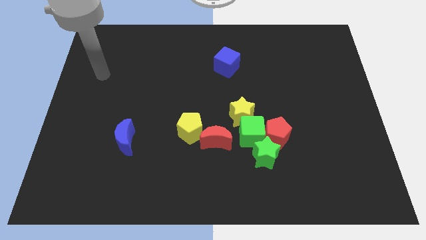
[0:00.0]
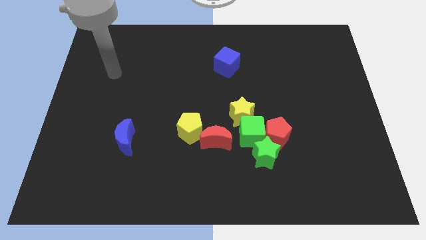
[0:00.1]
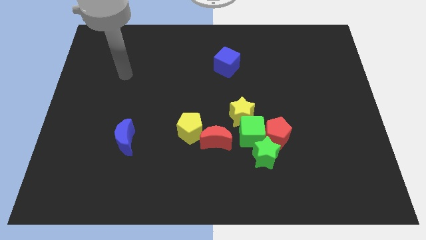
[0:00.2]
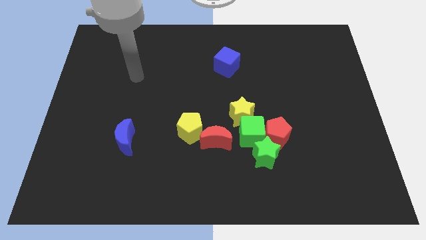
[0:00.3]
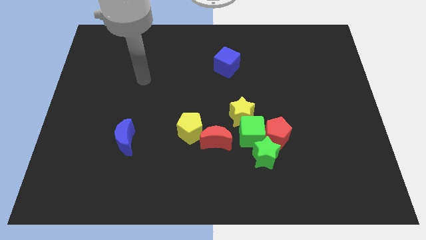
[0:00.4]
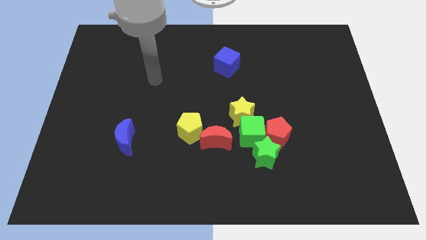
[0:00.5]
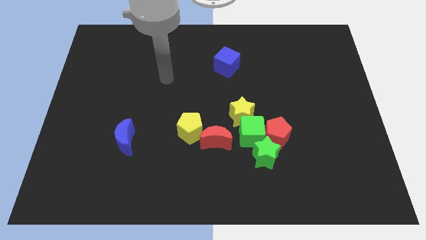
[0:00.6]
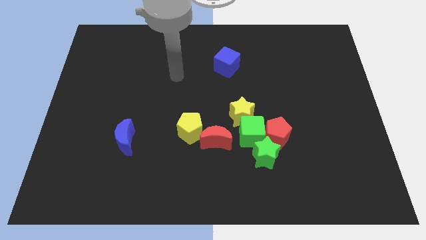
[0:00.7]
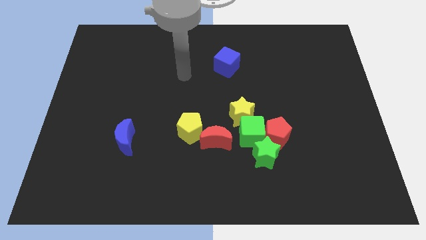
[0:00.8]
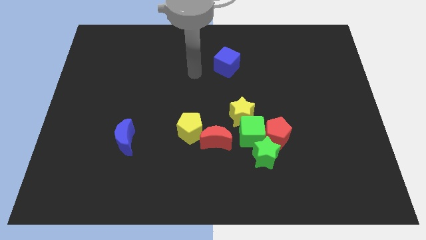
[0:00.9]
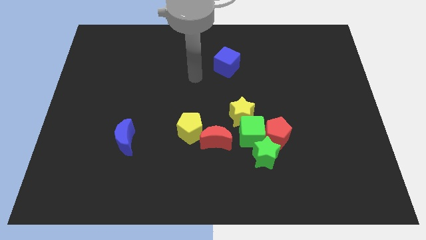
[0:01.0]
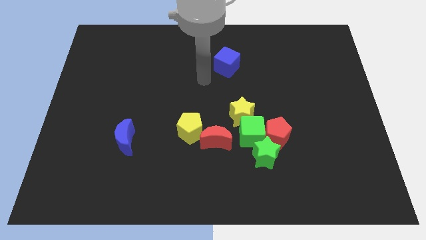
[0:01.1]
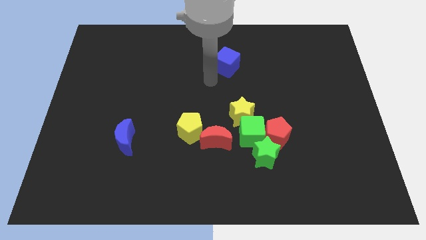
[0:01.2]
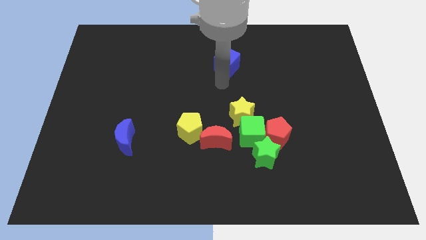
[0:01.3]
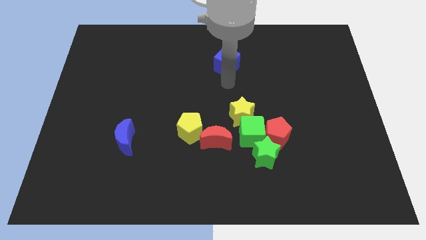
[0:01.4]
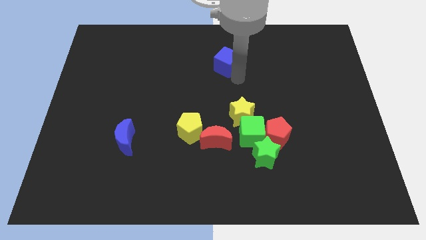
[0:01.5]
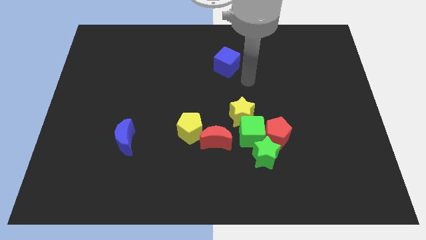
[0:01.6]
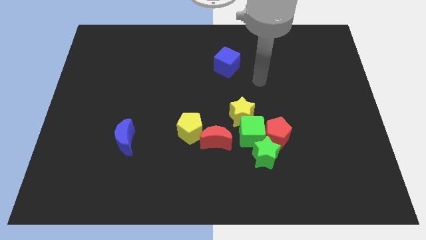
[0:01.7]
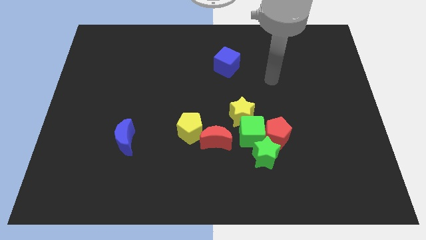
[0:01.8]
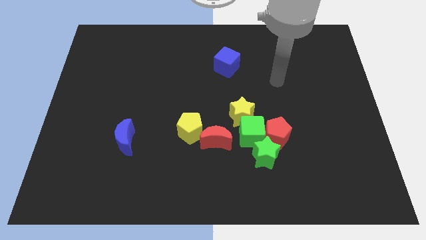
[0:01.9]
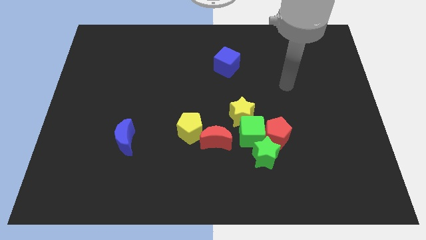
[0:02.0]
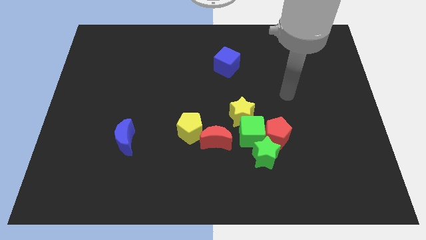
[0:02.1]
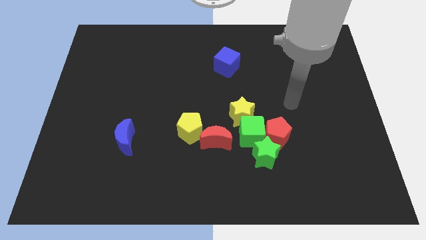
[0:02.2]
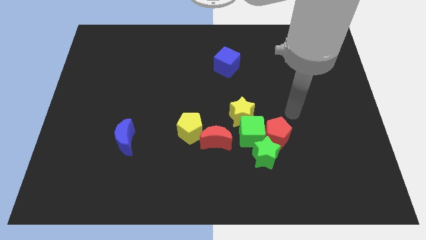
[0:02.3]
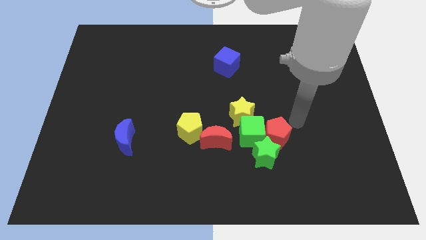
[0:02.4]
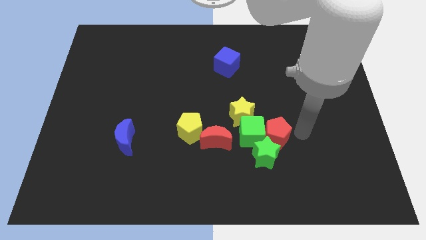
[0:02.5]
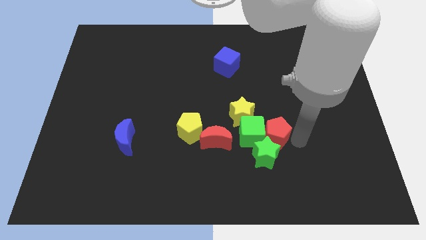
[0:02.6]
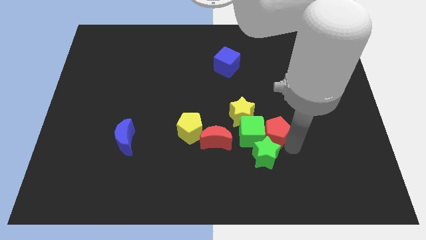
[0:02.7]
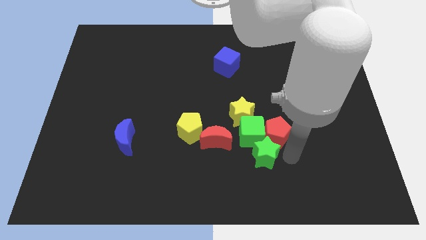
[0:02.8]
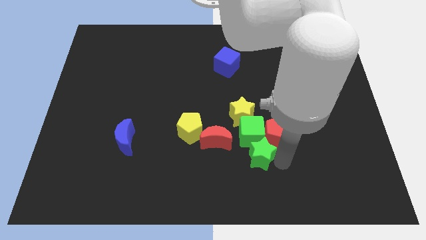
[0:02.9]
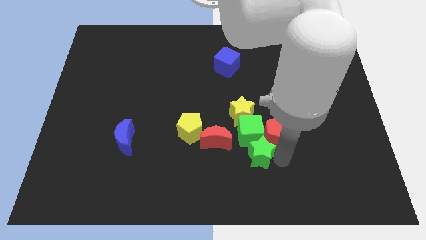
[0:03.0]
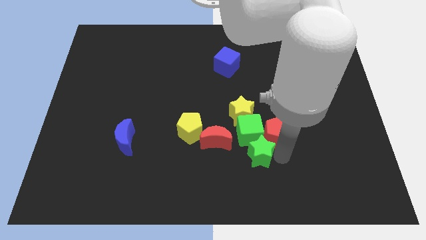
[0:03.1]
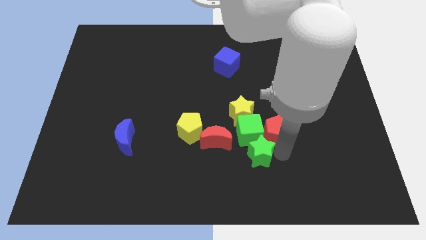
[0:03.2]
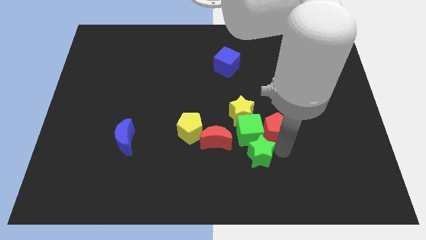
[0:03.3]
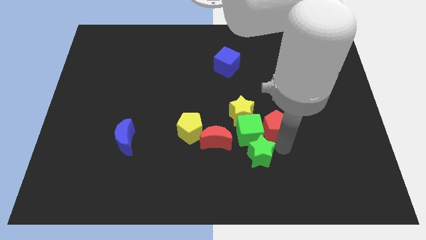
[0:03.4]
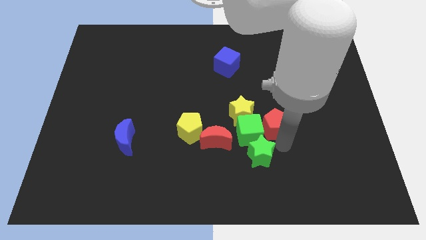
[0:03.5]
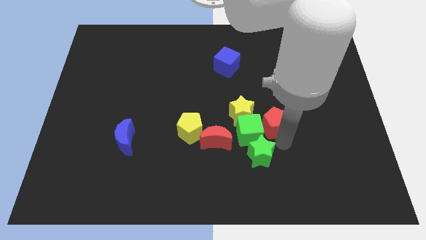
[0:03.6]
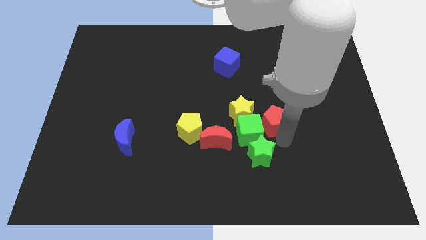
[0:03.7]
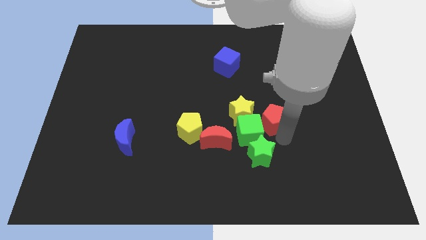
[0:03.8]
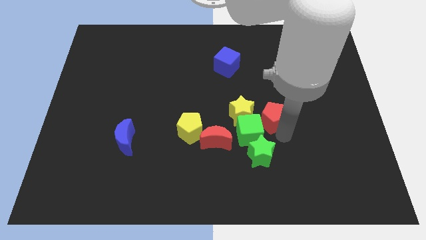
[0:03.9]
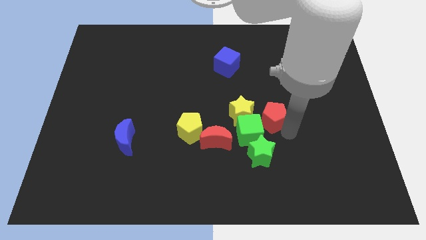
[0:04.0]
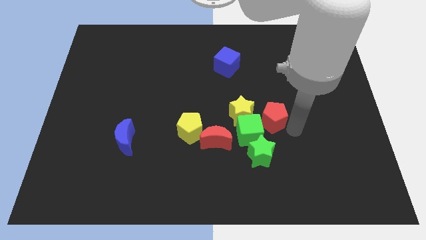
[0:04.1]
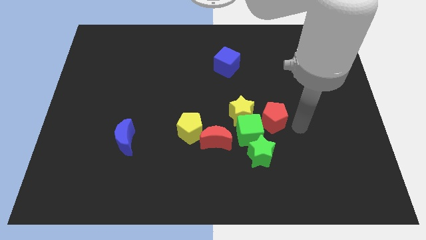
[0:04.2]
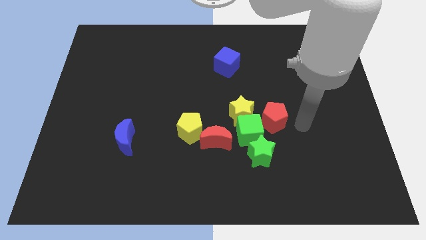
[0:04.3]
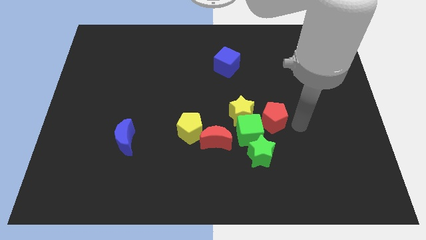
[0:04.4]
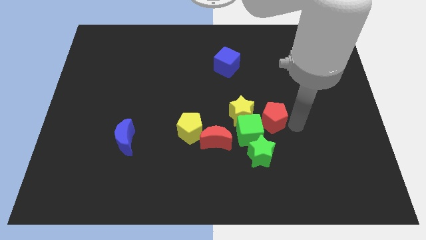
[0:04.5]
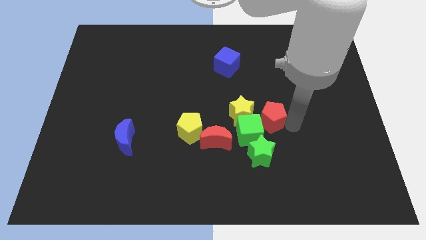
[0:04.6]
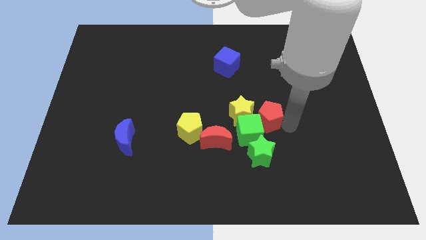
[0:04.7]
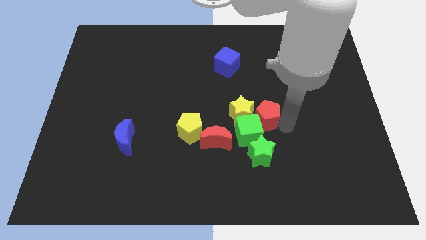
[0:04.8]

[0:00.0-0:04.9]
push the red pentagon towards the yellow star

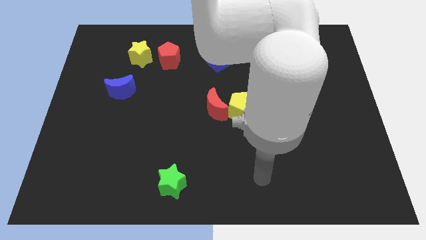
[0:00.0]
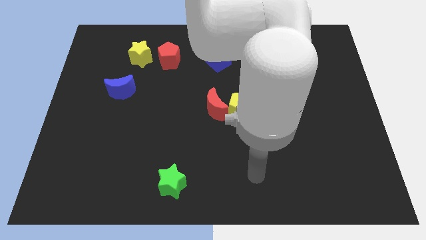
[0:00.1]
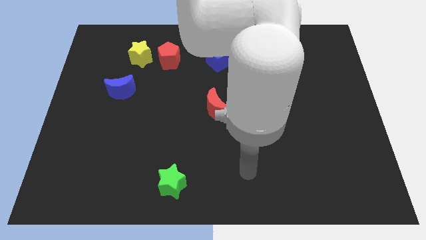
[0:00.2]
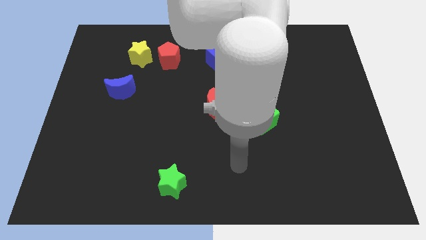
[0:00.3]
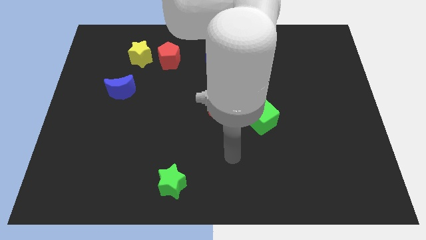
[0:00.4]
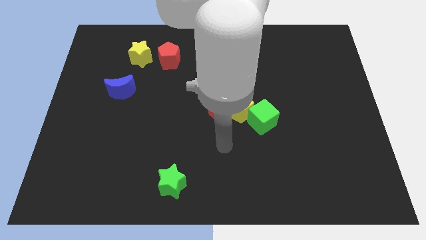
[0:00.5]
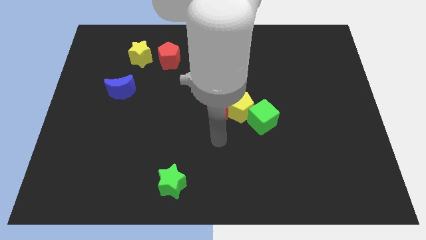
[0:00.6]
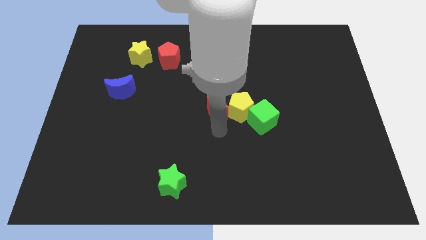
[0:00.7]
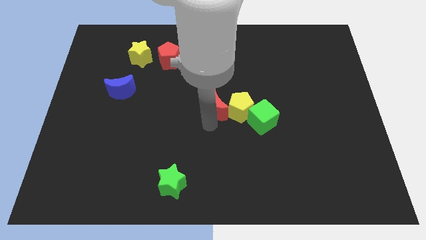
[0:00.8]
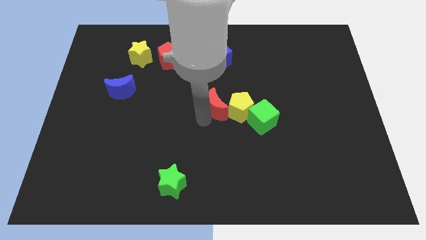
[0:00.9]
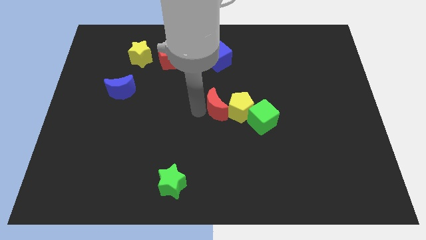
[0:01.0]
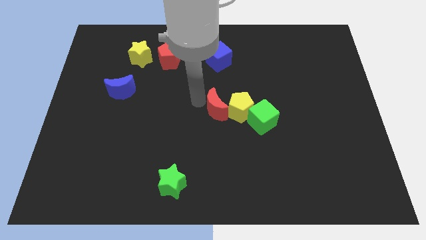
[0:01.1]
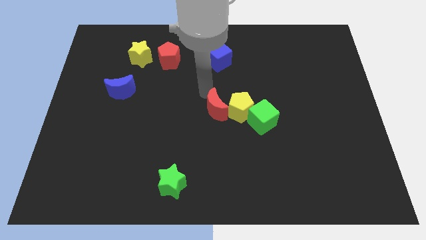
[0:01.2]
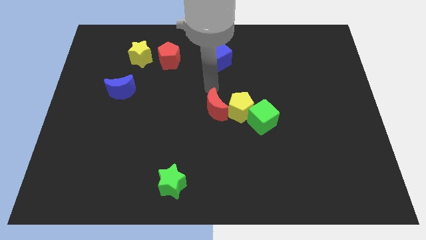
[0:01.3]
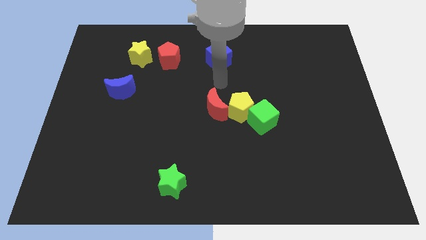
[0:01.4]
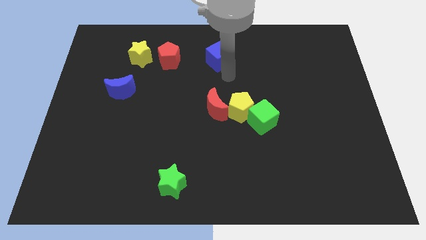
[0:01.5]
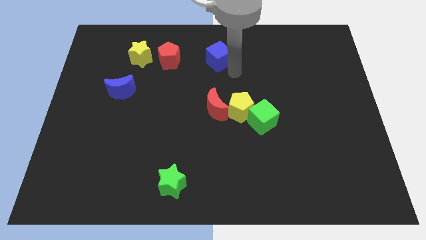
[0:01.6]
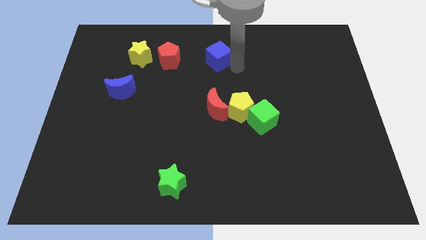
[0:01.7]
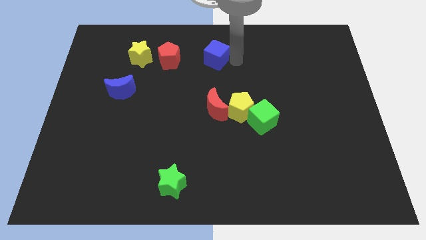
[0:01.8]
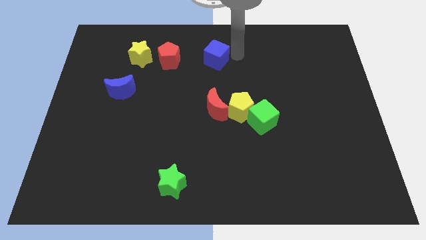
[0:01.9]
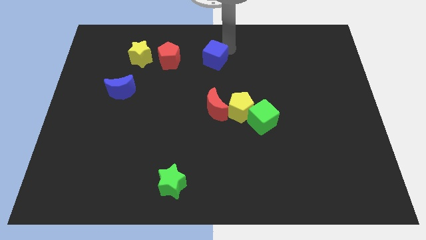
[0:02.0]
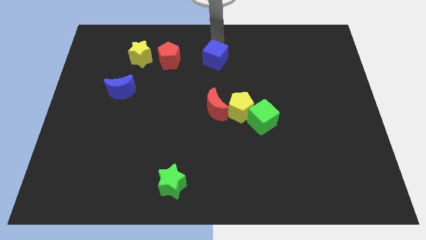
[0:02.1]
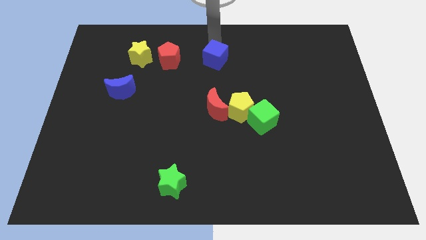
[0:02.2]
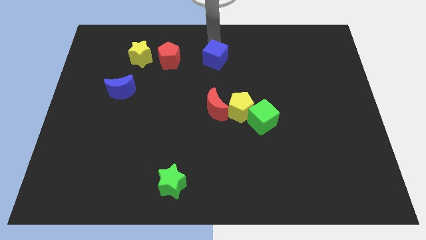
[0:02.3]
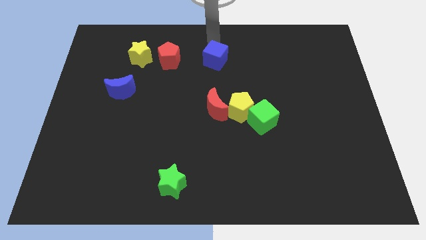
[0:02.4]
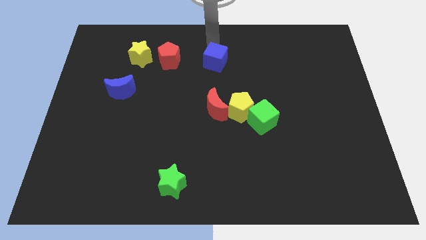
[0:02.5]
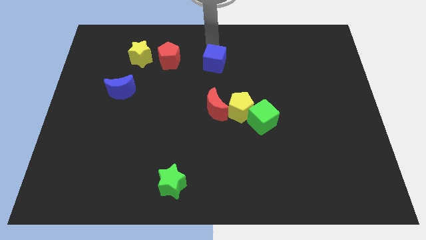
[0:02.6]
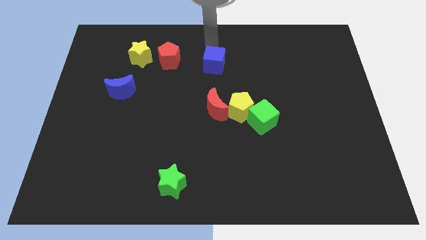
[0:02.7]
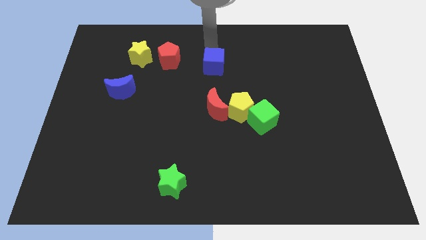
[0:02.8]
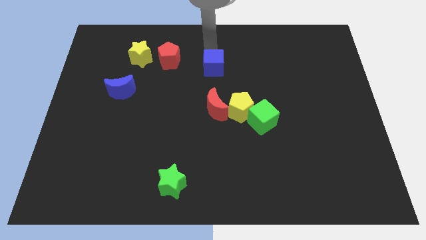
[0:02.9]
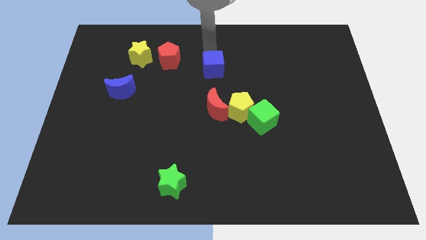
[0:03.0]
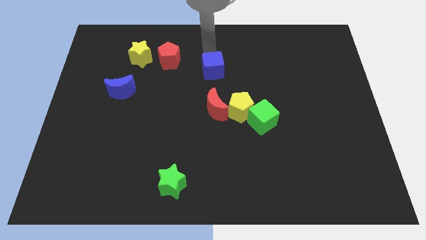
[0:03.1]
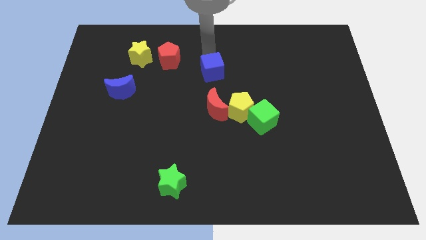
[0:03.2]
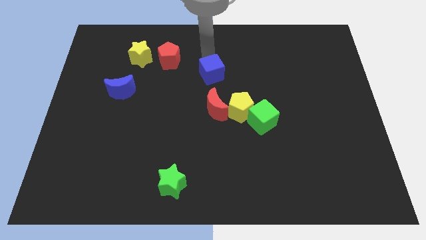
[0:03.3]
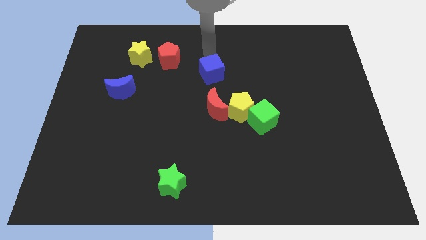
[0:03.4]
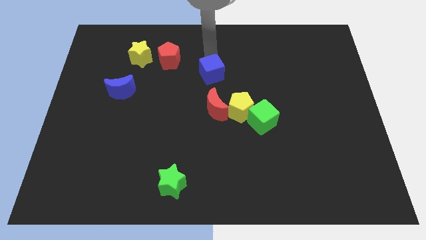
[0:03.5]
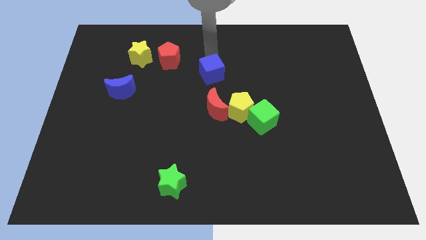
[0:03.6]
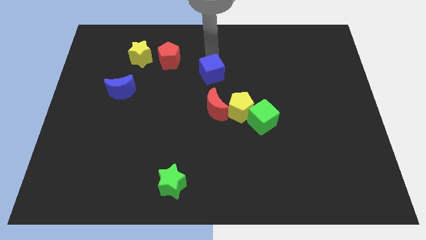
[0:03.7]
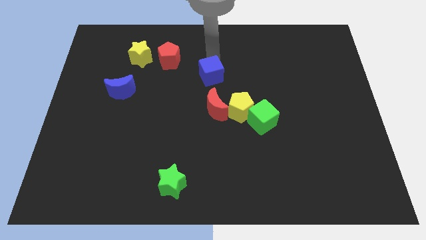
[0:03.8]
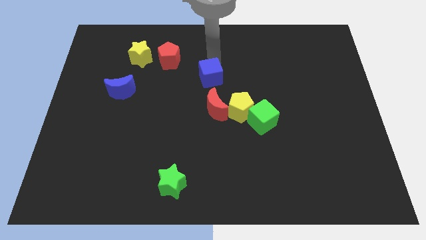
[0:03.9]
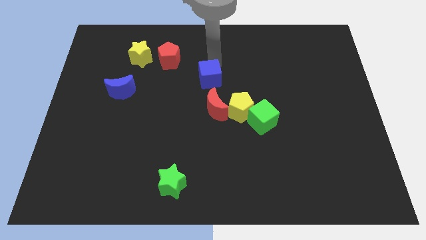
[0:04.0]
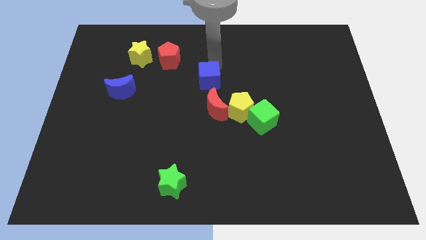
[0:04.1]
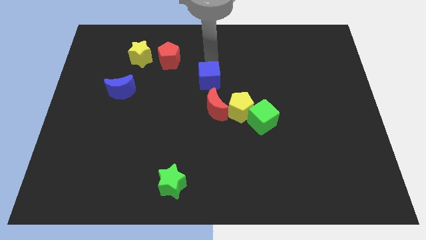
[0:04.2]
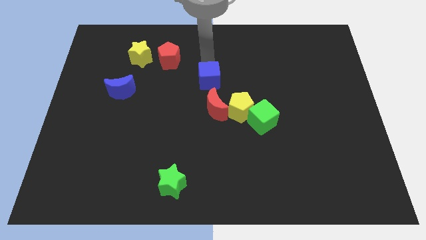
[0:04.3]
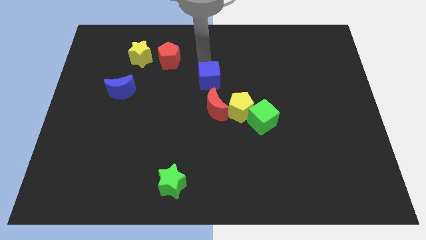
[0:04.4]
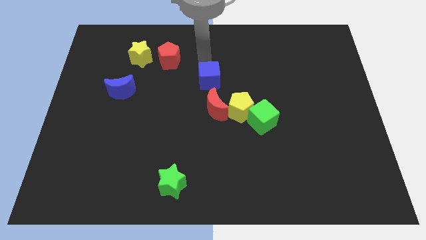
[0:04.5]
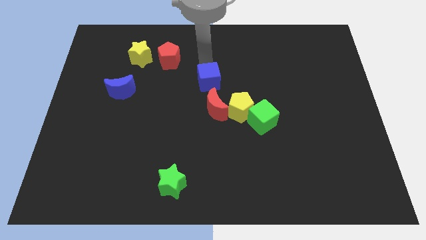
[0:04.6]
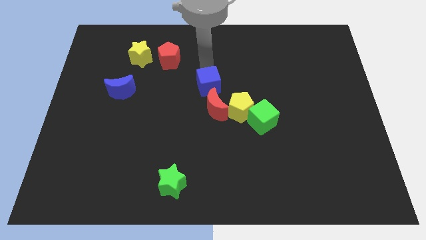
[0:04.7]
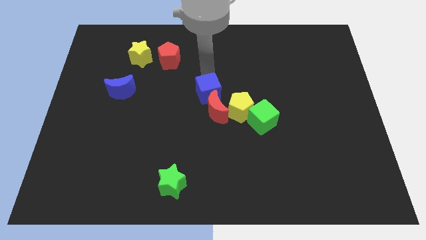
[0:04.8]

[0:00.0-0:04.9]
move the blue cube close to the red moon
